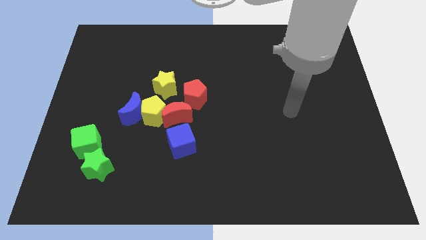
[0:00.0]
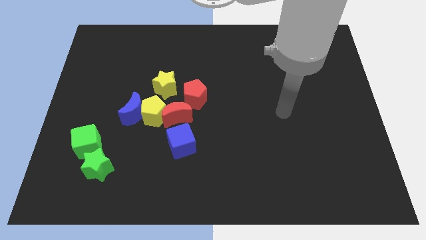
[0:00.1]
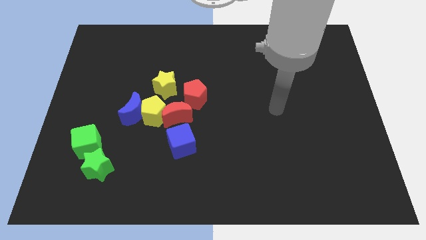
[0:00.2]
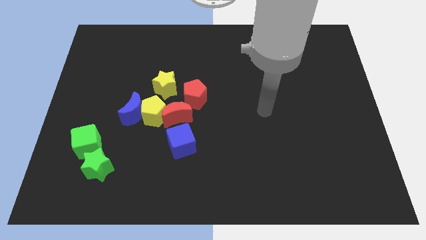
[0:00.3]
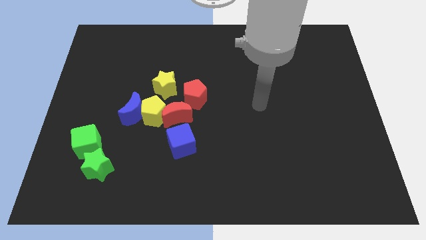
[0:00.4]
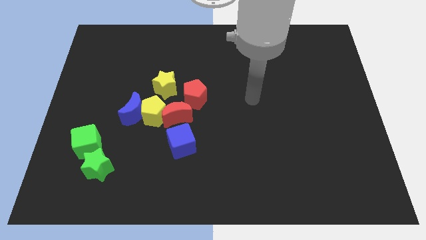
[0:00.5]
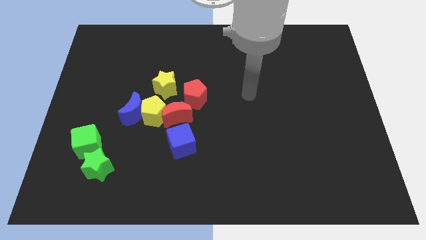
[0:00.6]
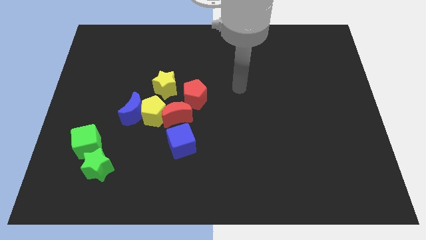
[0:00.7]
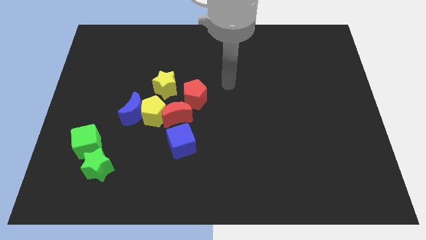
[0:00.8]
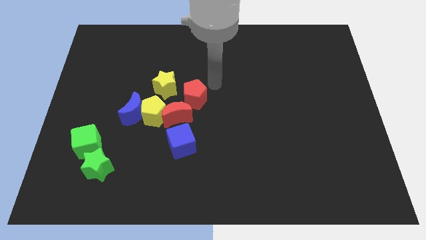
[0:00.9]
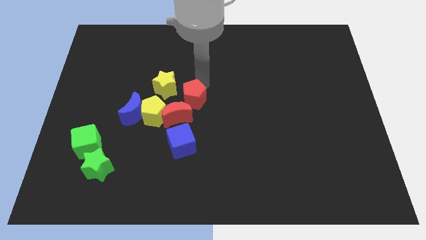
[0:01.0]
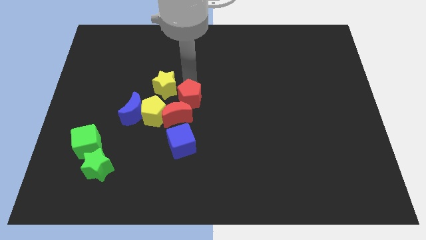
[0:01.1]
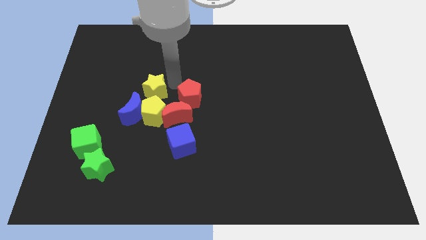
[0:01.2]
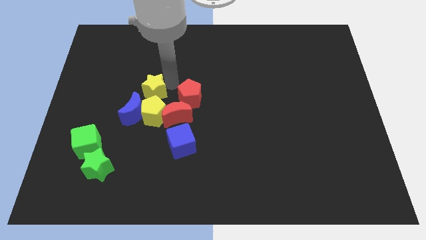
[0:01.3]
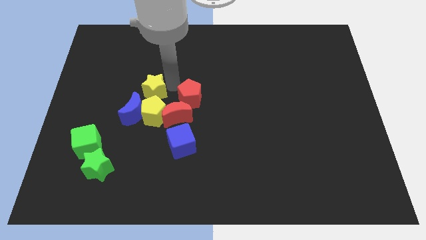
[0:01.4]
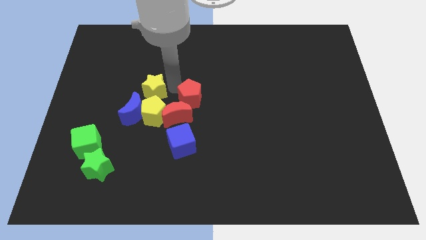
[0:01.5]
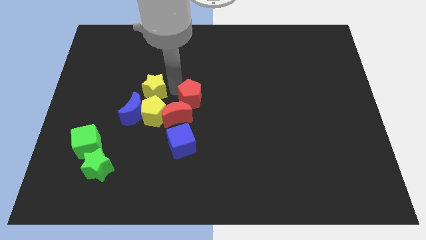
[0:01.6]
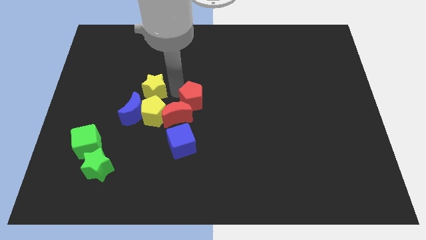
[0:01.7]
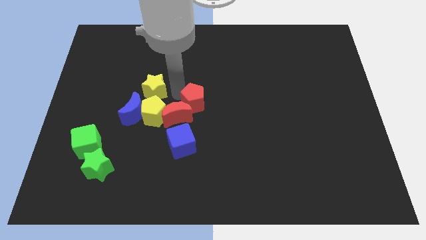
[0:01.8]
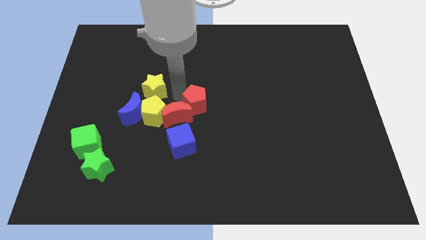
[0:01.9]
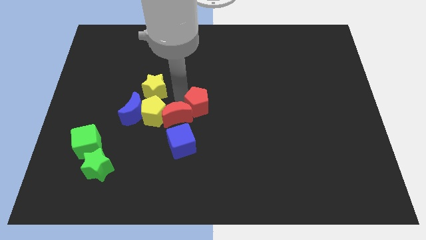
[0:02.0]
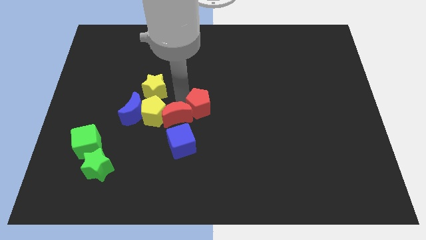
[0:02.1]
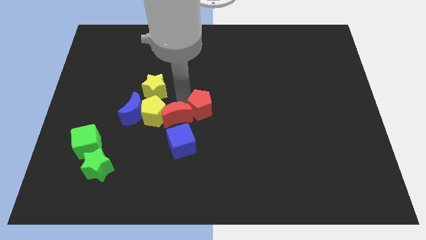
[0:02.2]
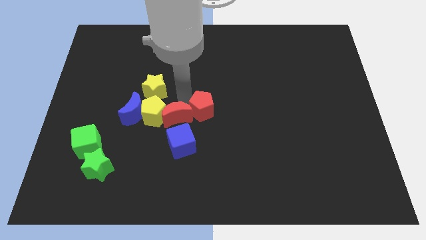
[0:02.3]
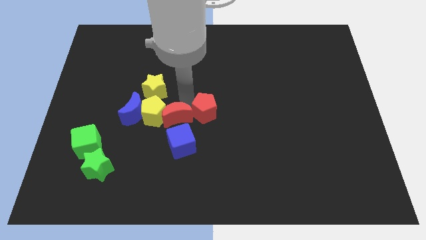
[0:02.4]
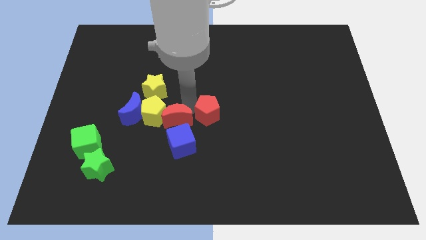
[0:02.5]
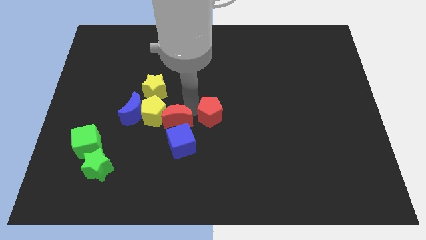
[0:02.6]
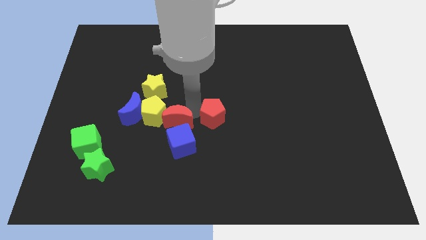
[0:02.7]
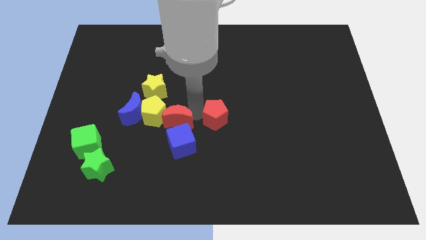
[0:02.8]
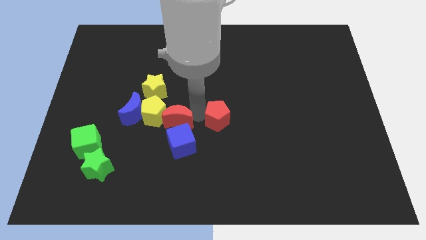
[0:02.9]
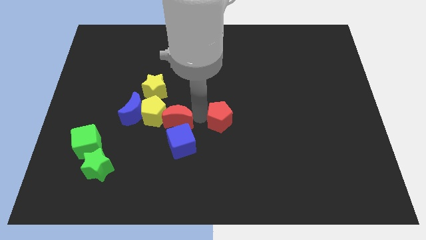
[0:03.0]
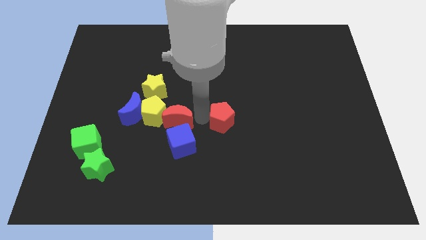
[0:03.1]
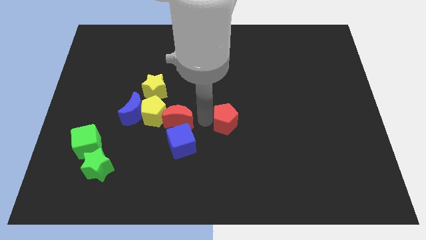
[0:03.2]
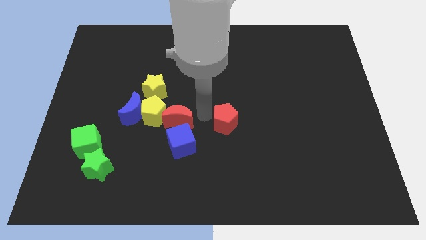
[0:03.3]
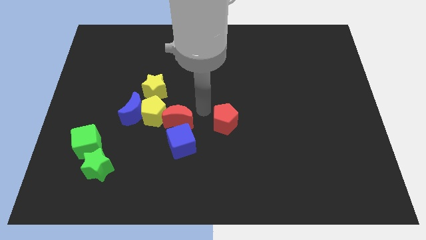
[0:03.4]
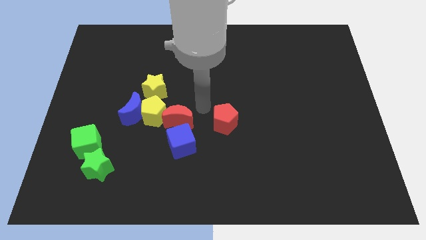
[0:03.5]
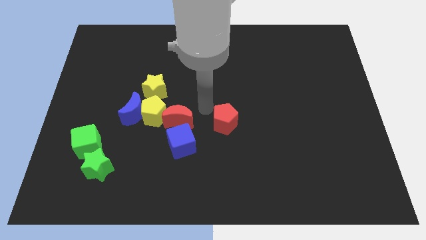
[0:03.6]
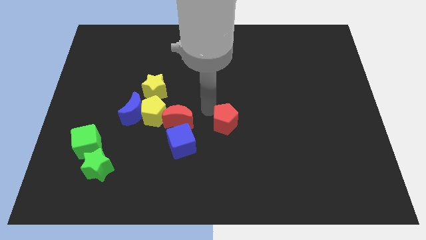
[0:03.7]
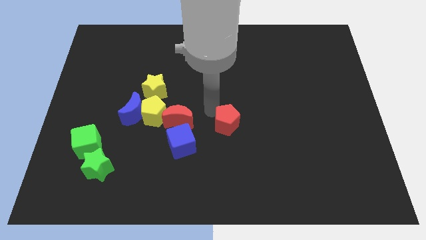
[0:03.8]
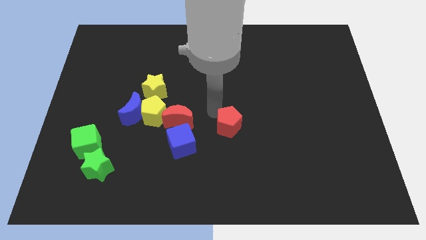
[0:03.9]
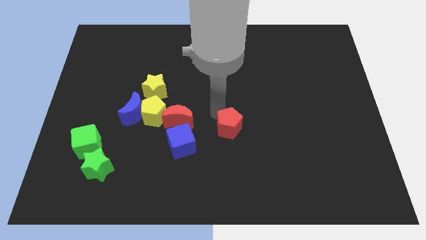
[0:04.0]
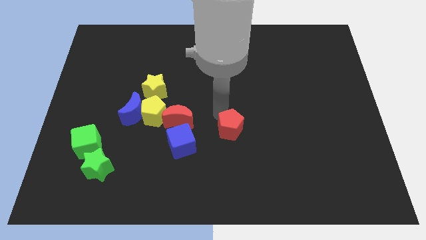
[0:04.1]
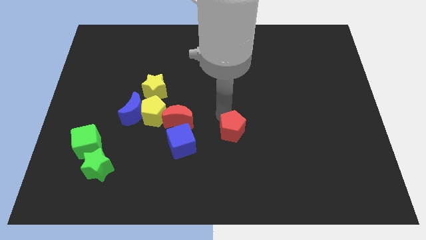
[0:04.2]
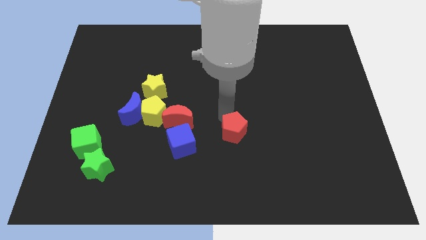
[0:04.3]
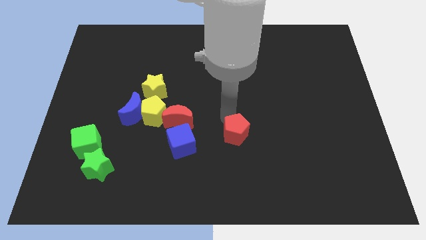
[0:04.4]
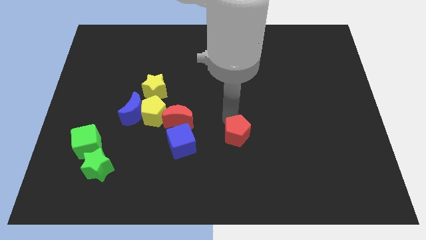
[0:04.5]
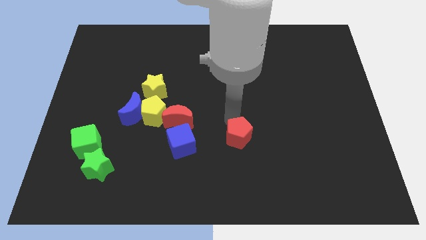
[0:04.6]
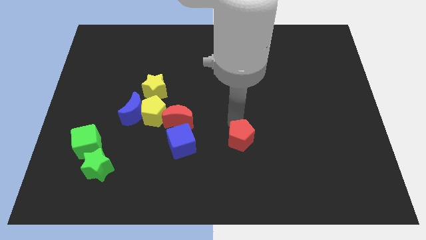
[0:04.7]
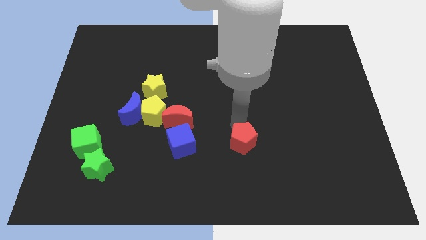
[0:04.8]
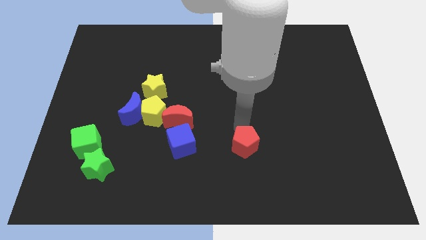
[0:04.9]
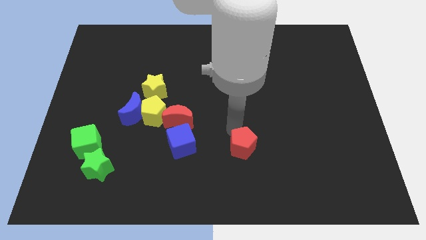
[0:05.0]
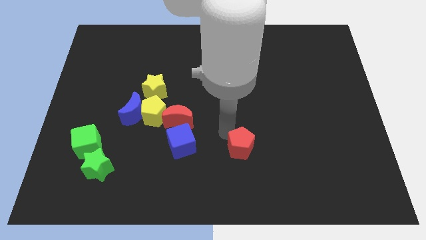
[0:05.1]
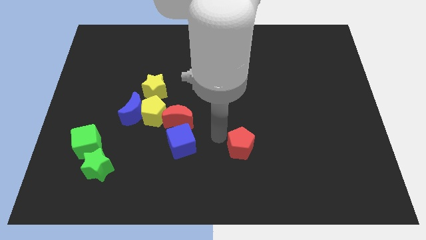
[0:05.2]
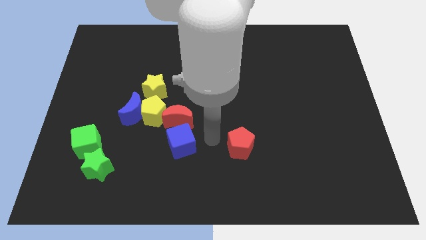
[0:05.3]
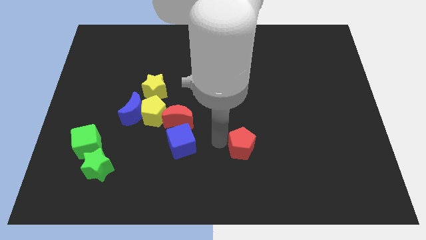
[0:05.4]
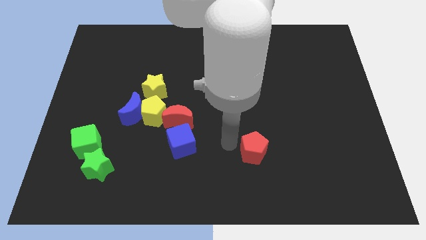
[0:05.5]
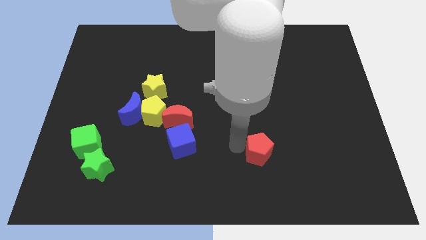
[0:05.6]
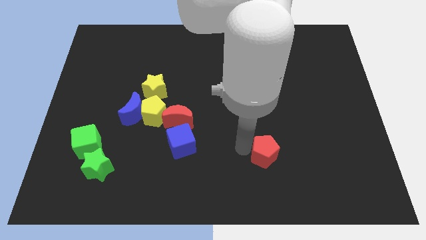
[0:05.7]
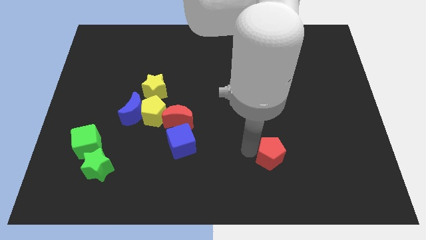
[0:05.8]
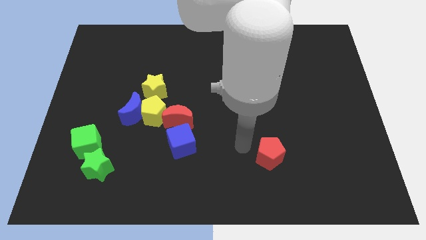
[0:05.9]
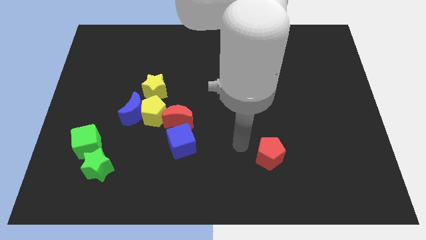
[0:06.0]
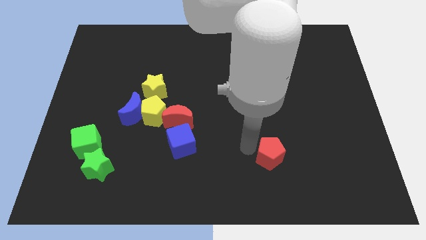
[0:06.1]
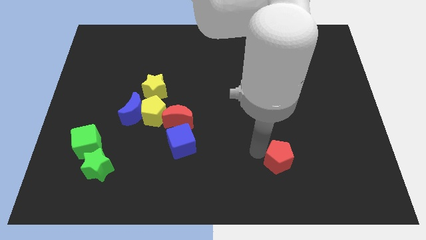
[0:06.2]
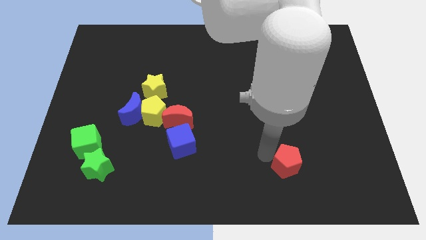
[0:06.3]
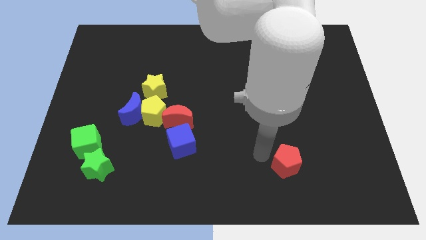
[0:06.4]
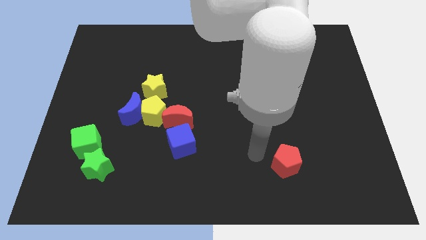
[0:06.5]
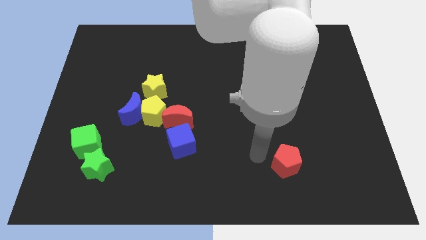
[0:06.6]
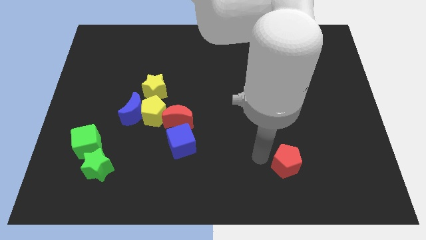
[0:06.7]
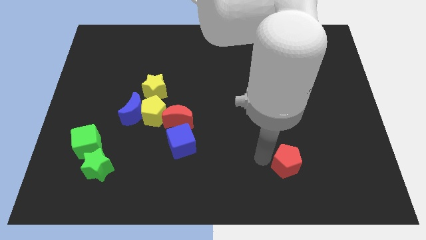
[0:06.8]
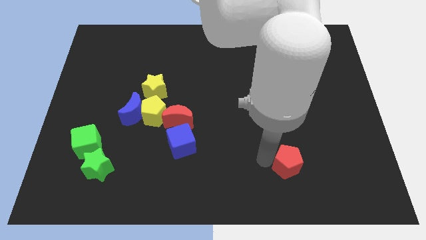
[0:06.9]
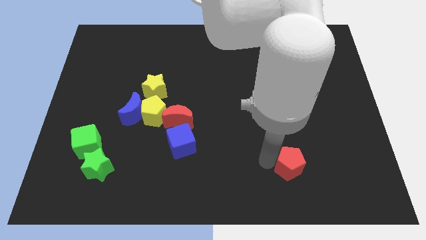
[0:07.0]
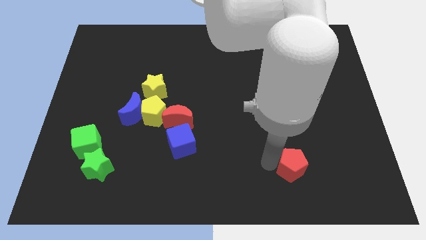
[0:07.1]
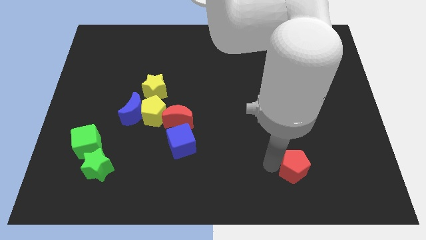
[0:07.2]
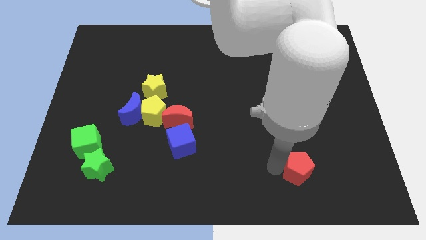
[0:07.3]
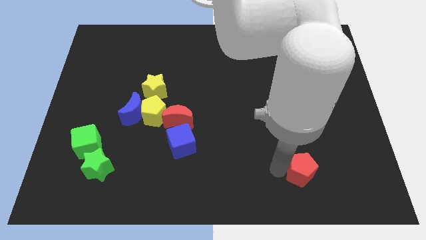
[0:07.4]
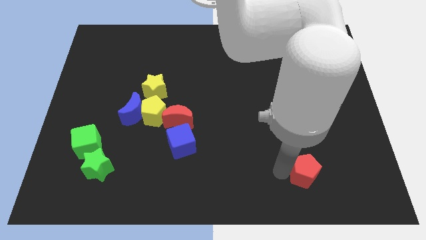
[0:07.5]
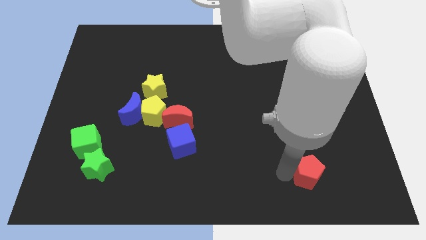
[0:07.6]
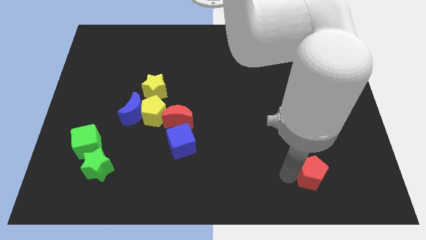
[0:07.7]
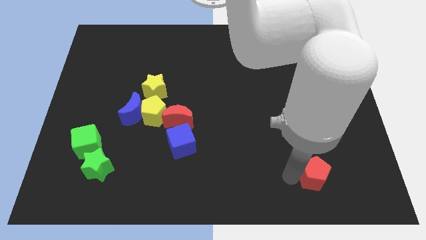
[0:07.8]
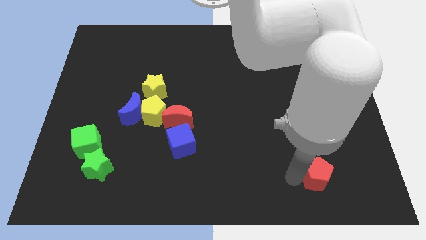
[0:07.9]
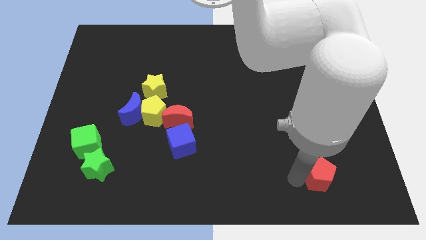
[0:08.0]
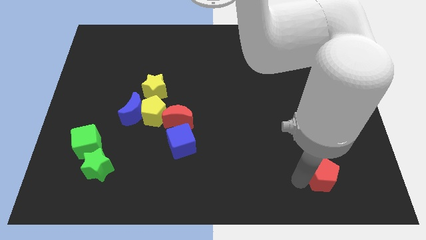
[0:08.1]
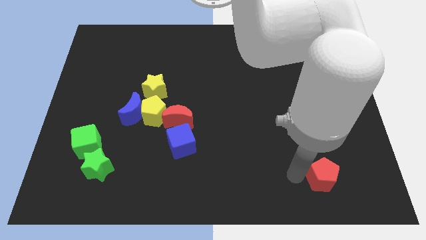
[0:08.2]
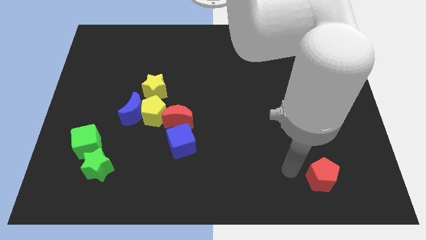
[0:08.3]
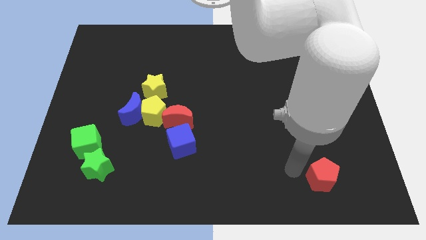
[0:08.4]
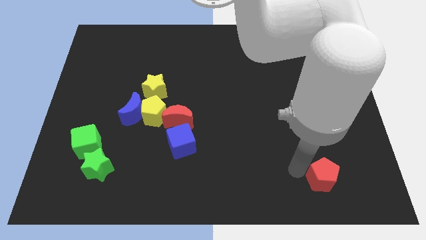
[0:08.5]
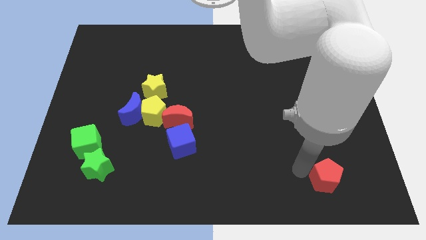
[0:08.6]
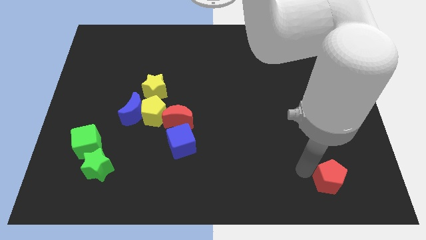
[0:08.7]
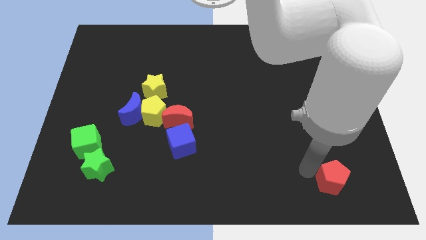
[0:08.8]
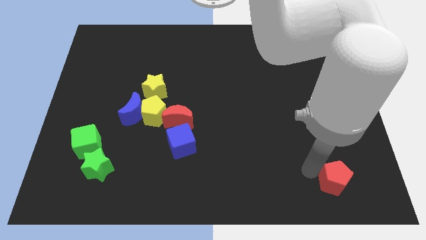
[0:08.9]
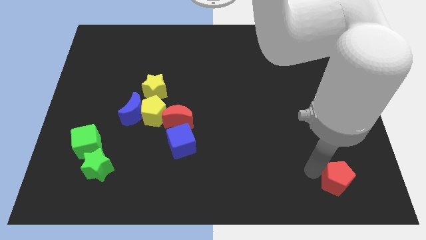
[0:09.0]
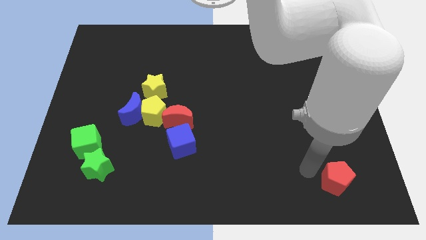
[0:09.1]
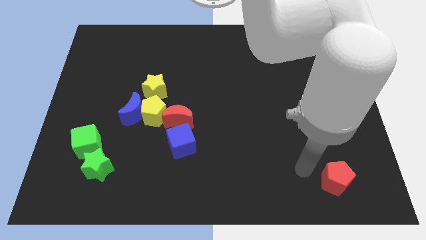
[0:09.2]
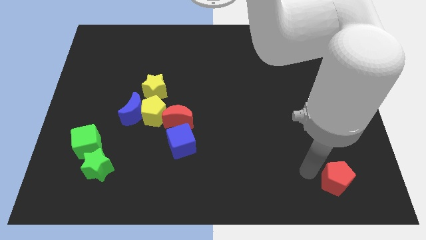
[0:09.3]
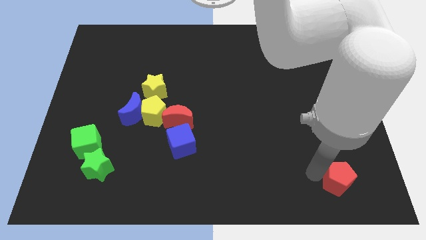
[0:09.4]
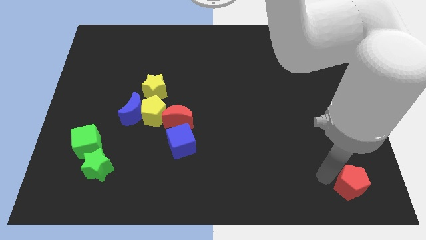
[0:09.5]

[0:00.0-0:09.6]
put the red pentagon to the bottom right
